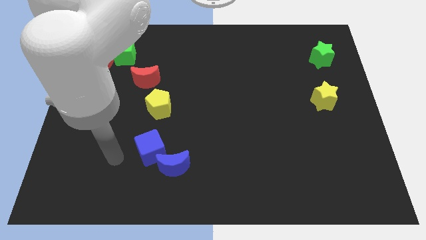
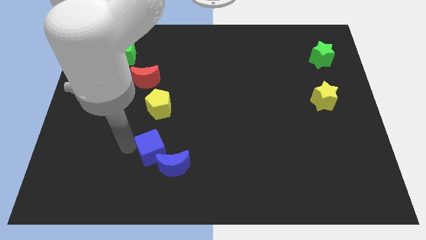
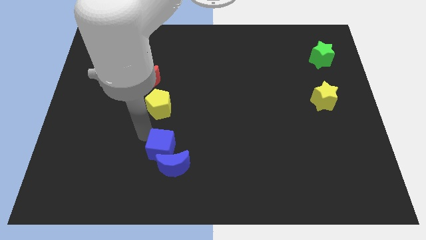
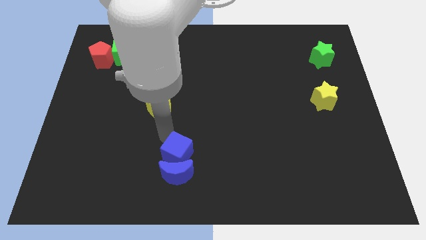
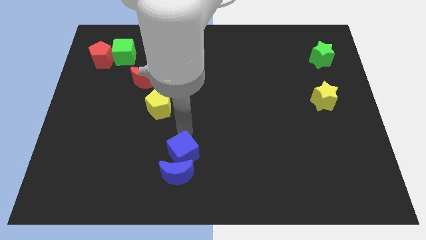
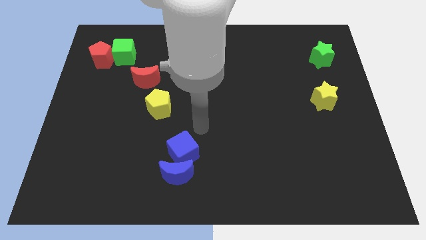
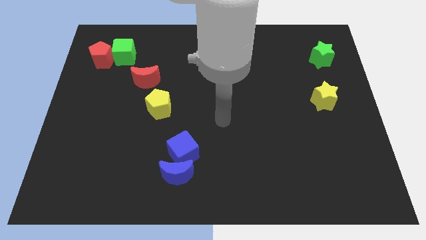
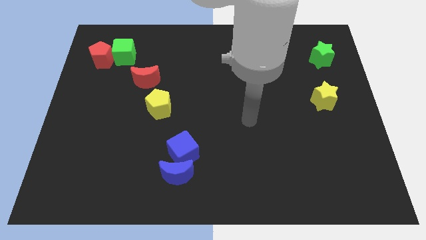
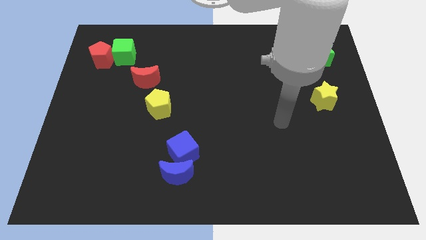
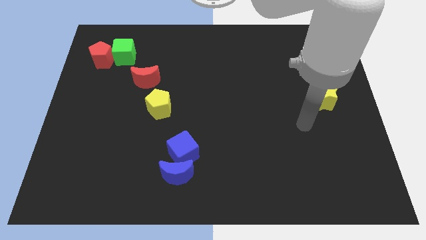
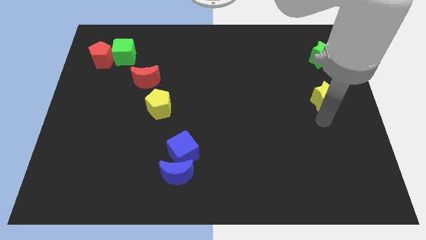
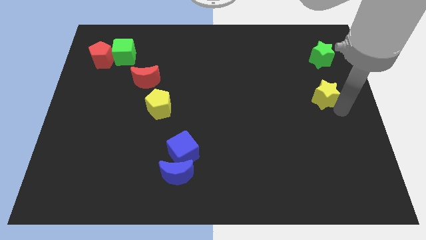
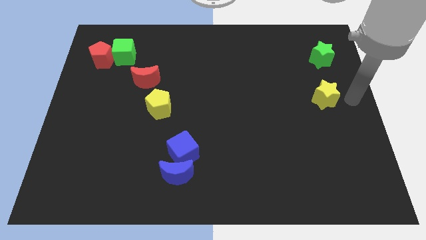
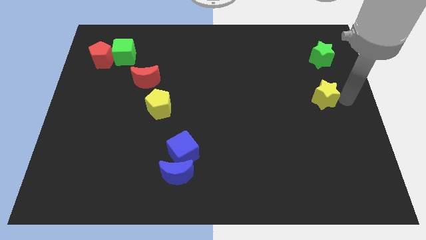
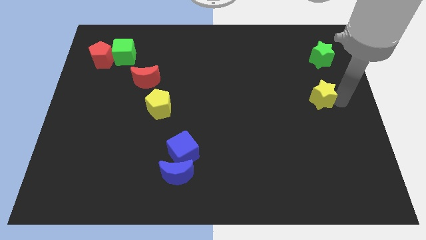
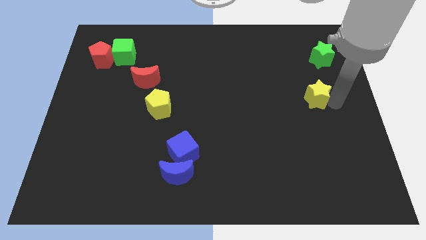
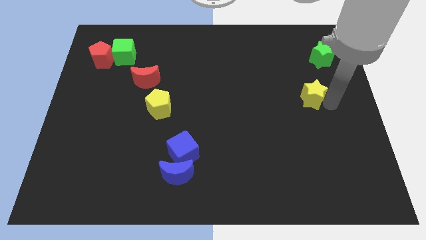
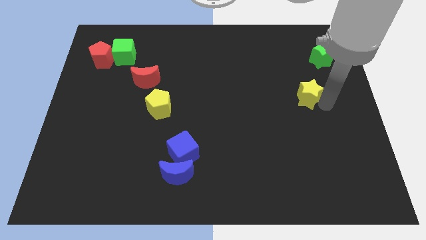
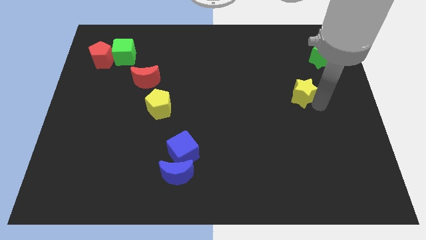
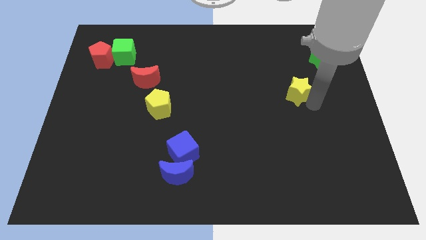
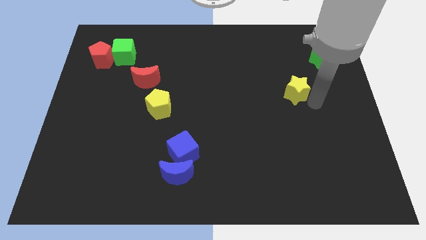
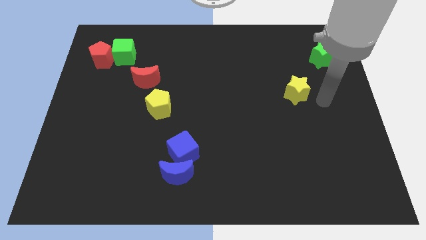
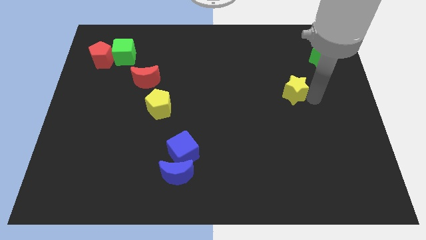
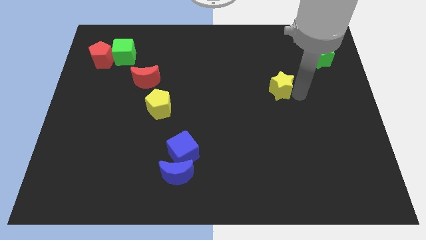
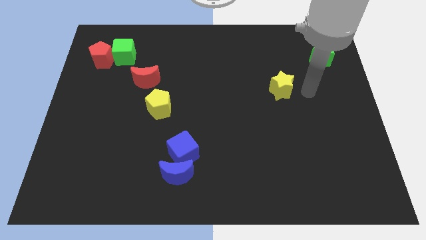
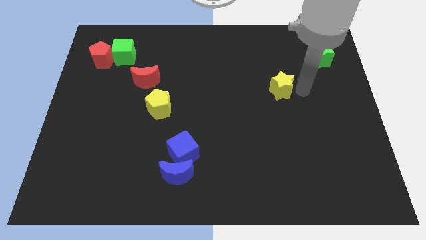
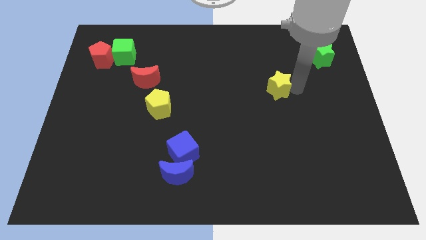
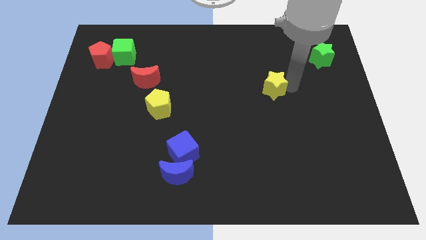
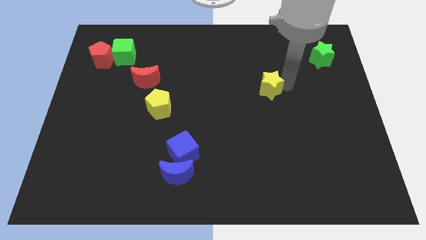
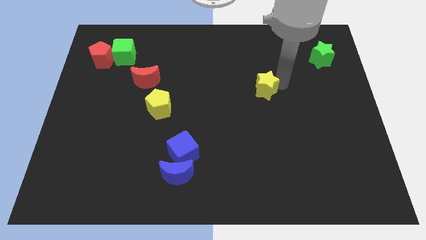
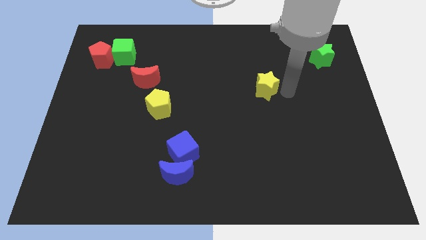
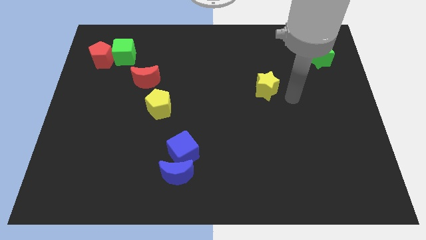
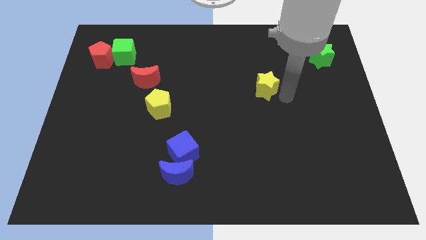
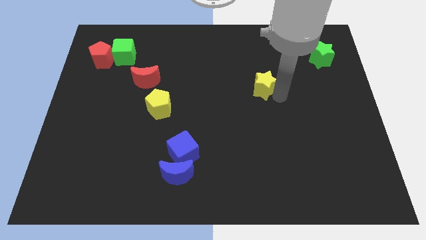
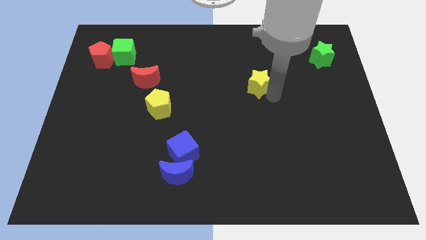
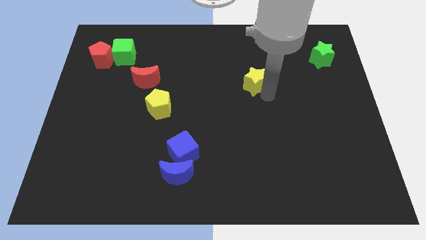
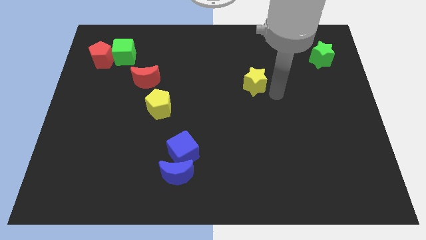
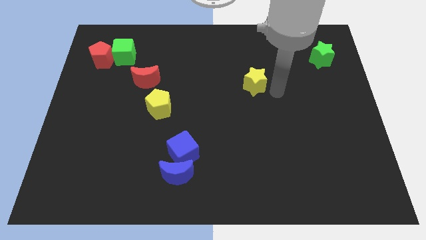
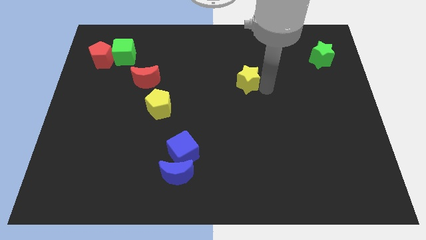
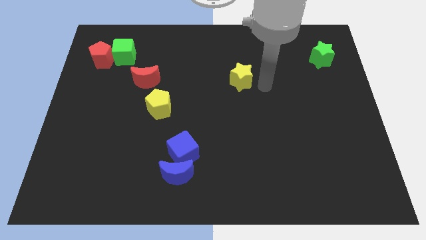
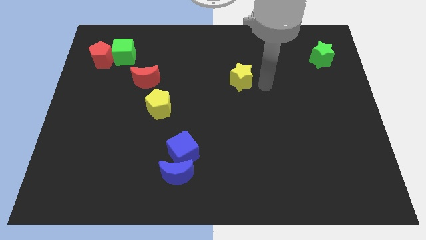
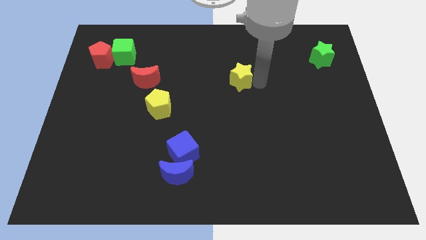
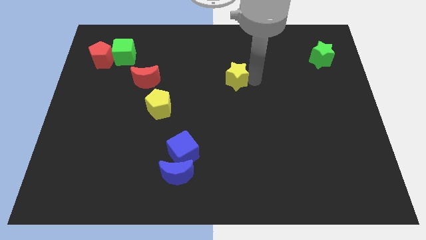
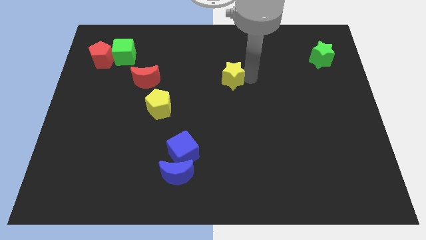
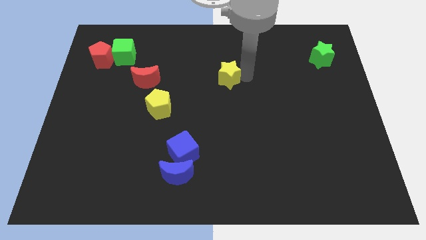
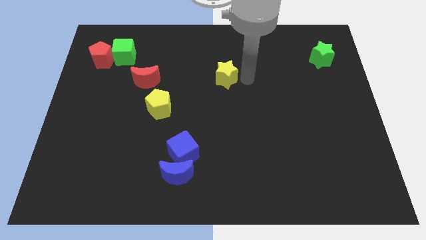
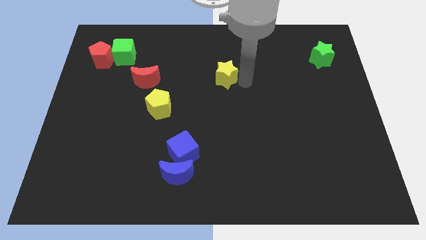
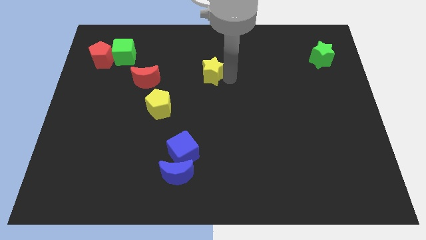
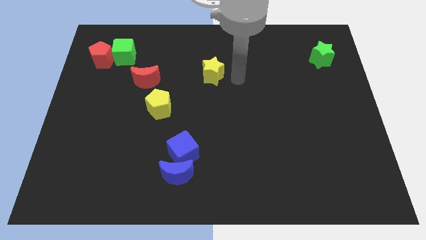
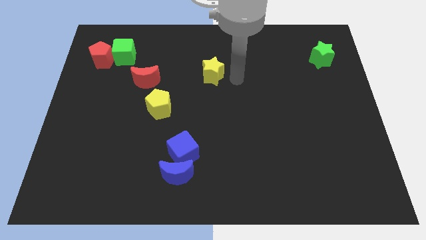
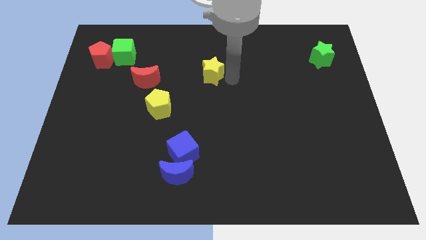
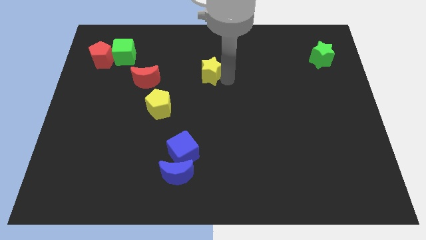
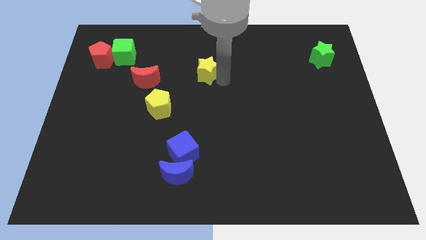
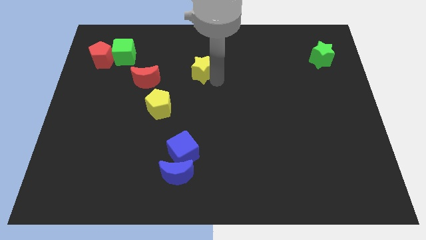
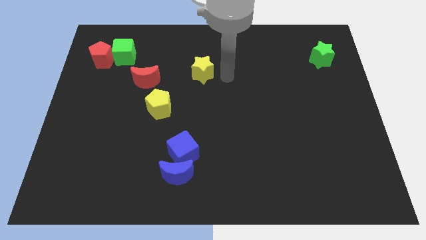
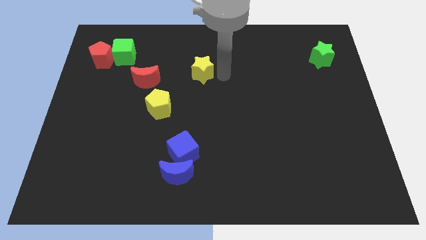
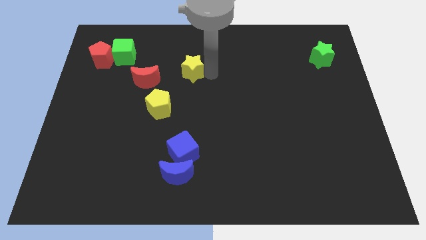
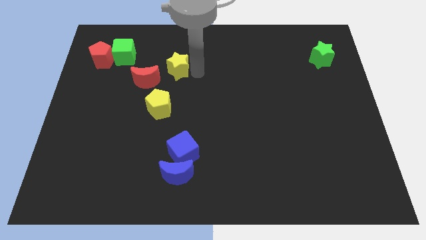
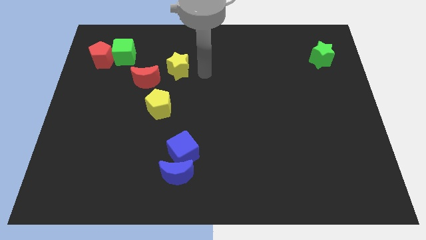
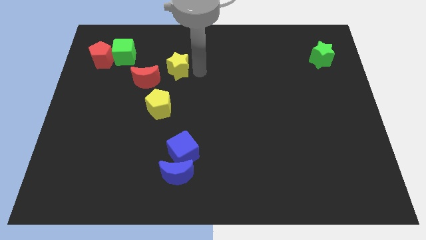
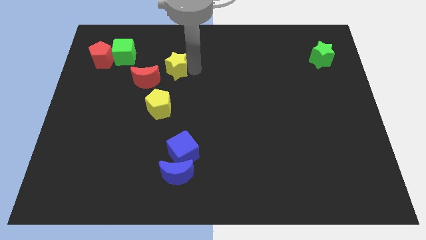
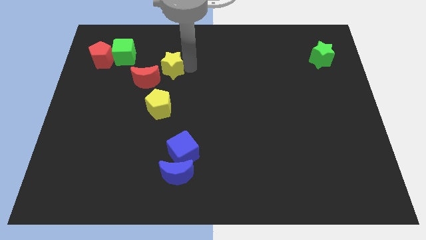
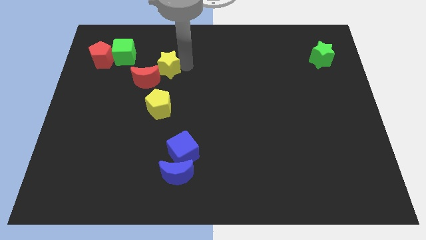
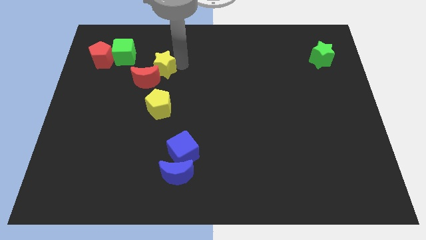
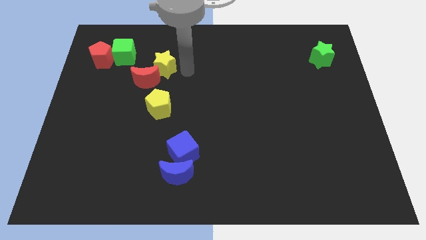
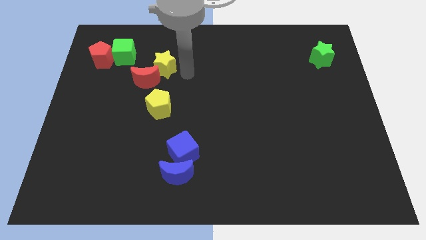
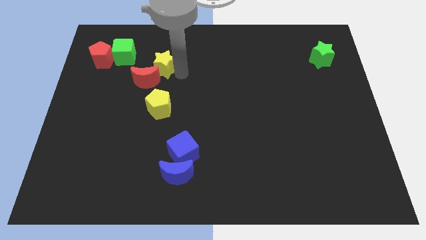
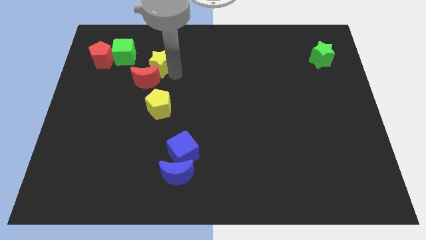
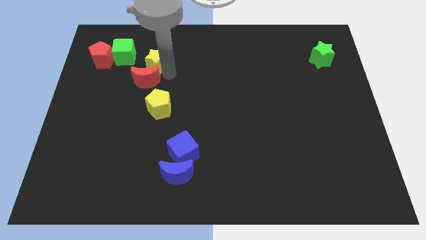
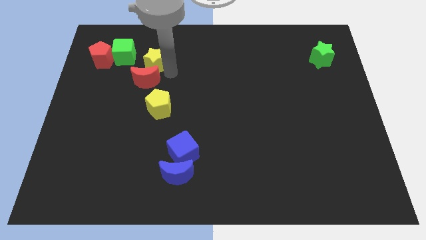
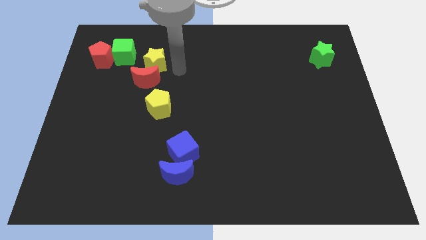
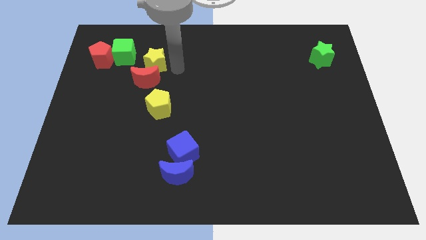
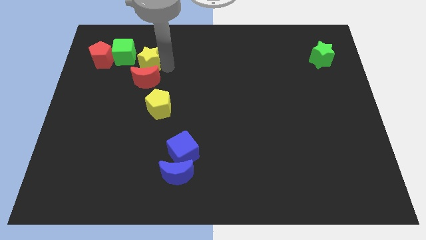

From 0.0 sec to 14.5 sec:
put the yellow star diagonally up and to the left of the red moon
